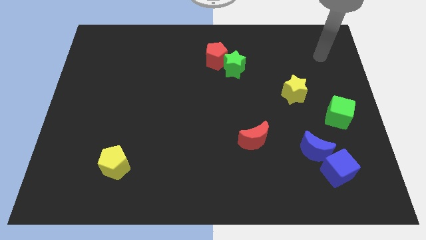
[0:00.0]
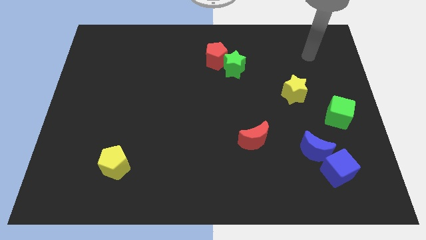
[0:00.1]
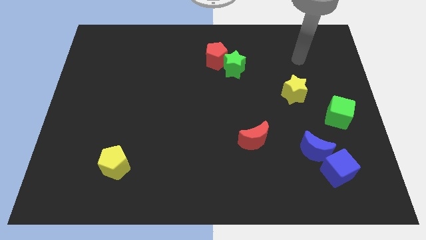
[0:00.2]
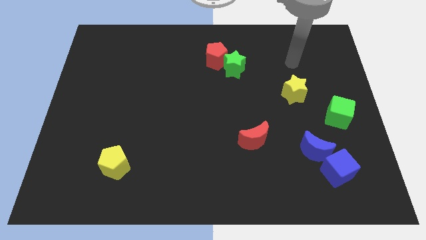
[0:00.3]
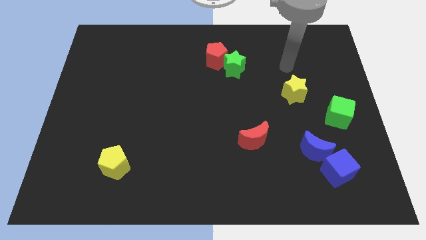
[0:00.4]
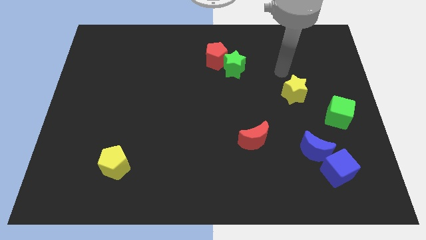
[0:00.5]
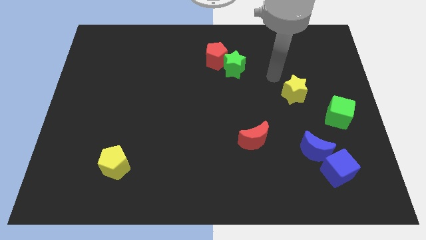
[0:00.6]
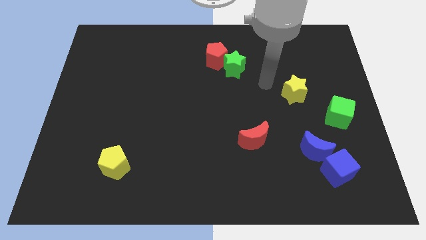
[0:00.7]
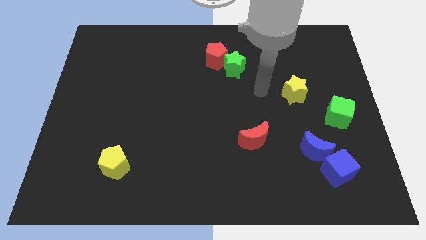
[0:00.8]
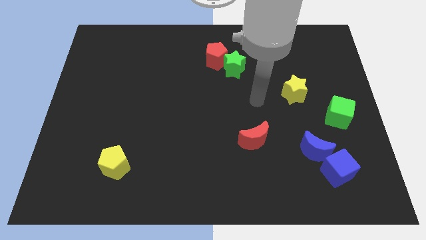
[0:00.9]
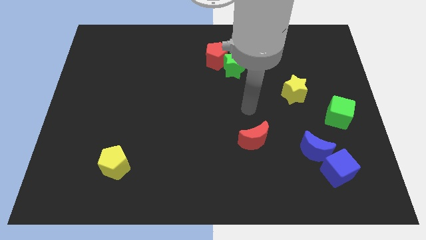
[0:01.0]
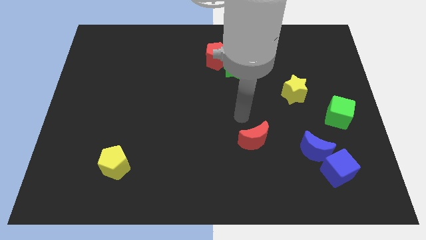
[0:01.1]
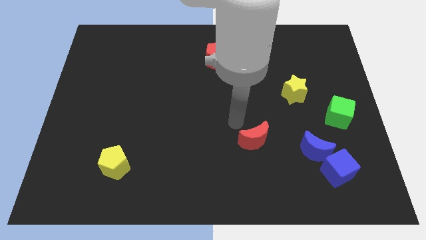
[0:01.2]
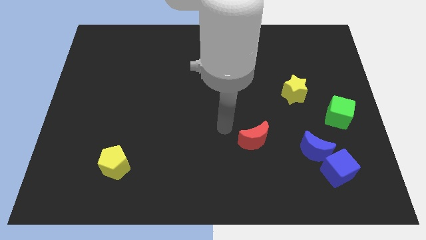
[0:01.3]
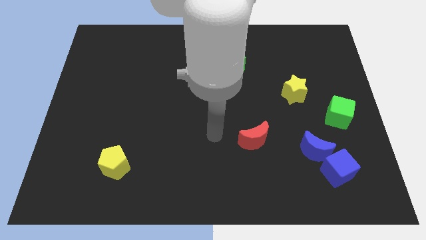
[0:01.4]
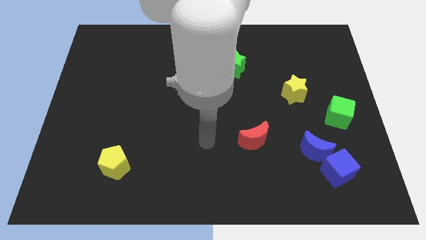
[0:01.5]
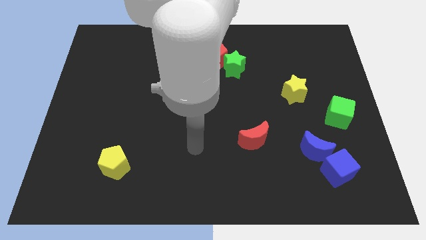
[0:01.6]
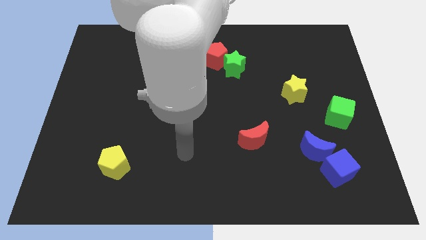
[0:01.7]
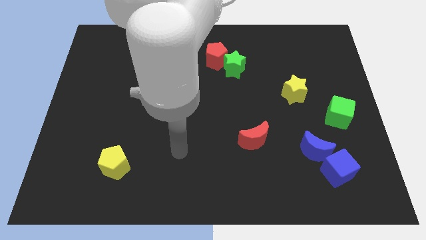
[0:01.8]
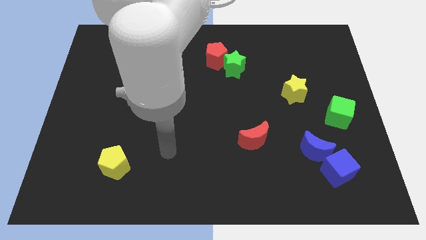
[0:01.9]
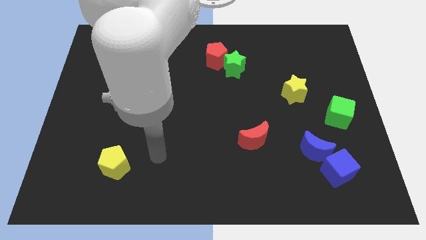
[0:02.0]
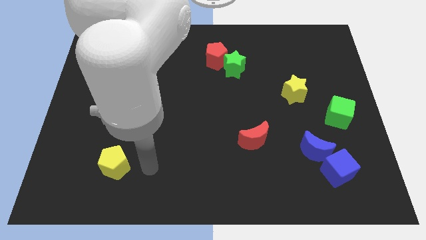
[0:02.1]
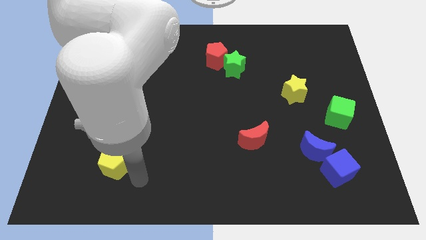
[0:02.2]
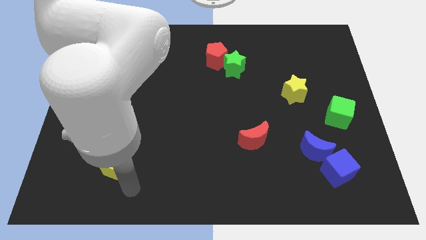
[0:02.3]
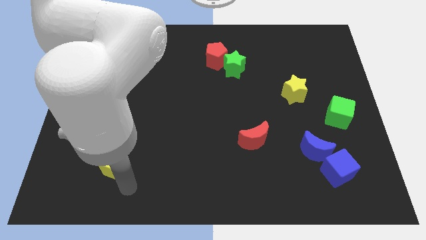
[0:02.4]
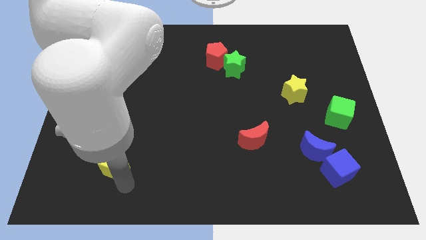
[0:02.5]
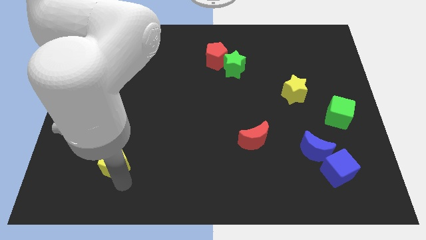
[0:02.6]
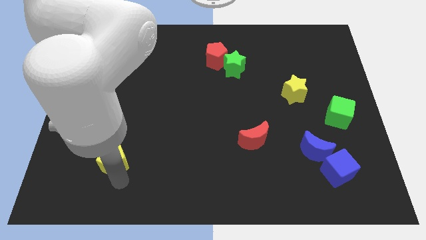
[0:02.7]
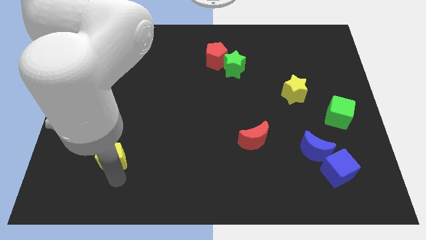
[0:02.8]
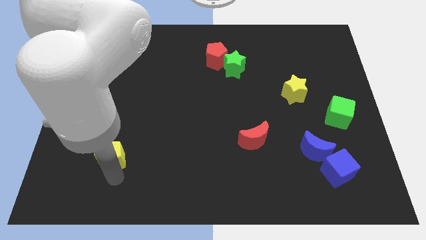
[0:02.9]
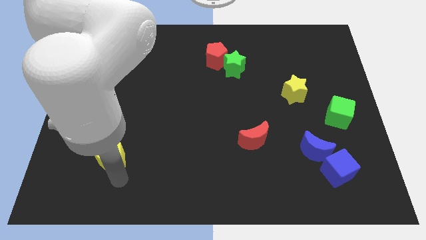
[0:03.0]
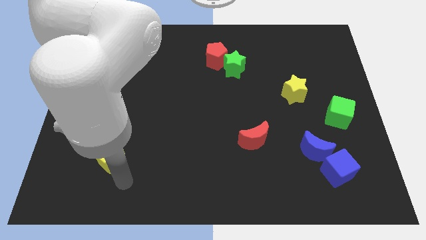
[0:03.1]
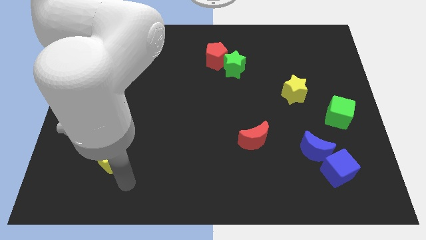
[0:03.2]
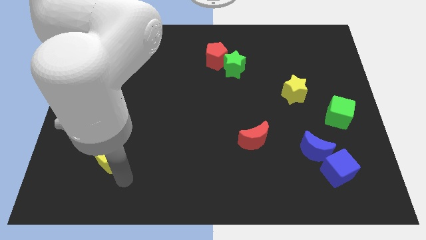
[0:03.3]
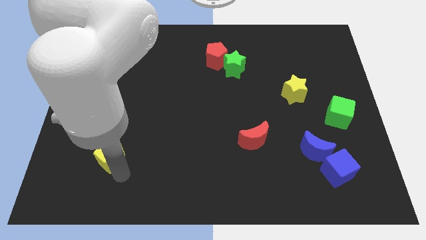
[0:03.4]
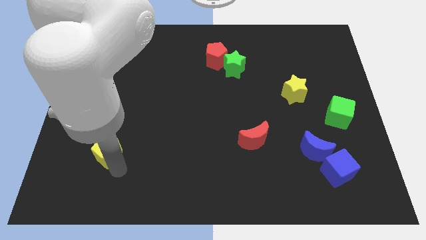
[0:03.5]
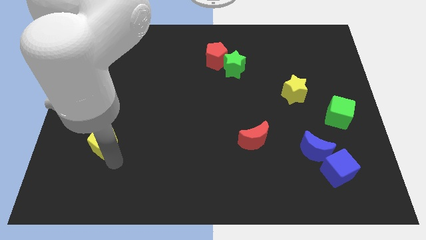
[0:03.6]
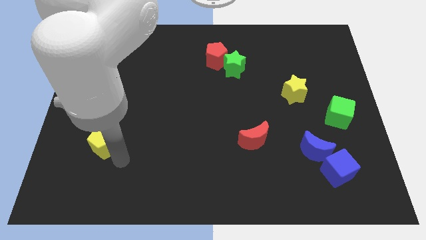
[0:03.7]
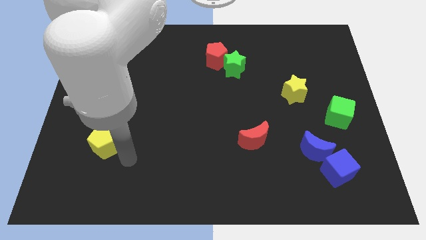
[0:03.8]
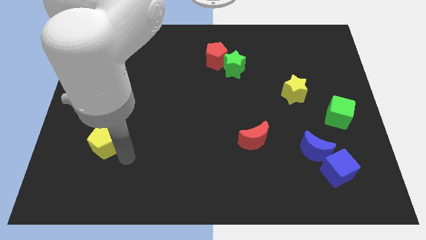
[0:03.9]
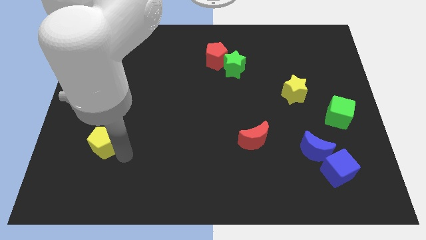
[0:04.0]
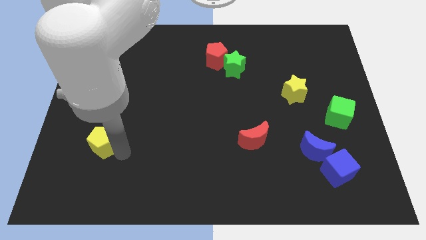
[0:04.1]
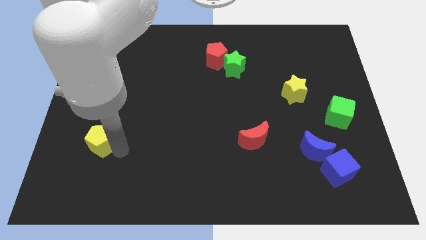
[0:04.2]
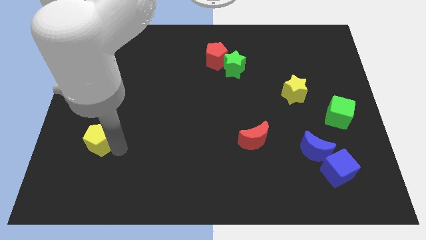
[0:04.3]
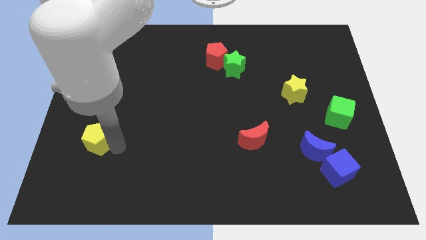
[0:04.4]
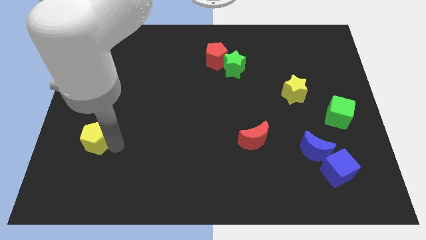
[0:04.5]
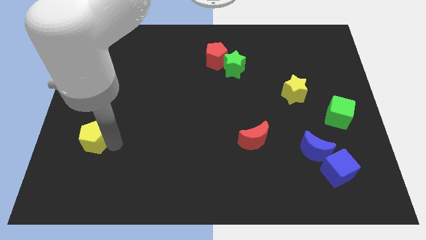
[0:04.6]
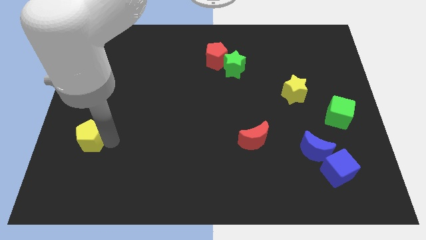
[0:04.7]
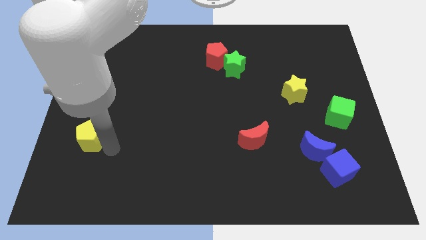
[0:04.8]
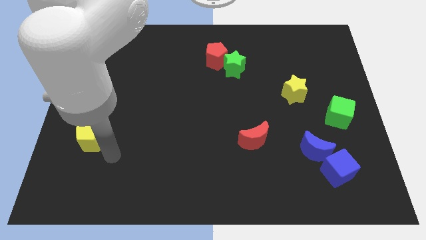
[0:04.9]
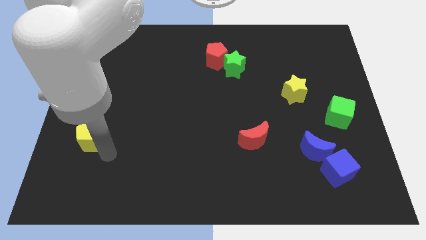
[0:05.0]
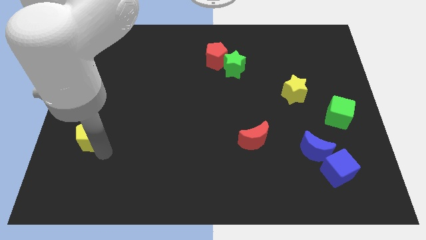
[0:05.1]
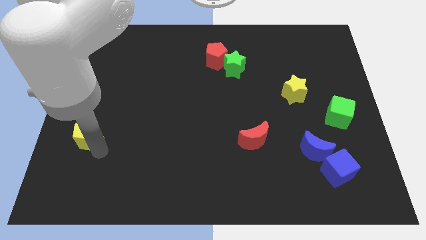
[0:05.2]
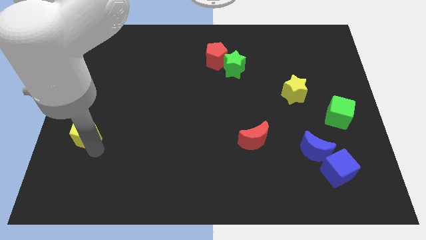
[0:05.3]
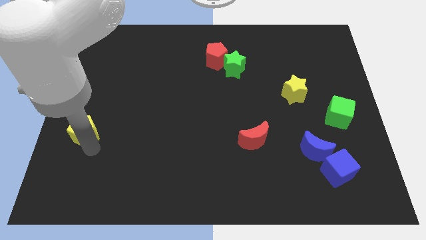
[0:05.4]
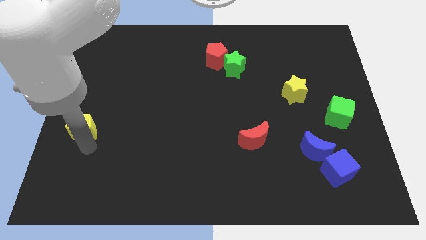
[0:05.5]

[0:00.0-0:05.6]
move the yellow pentagon to the left side

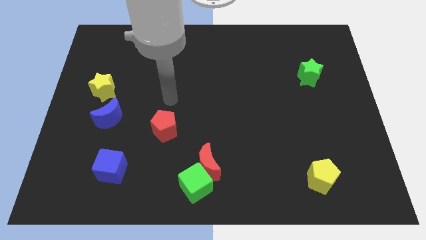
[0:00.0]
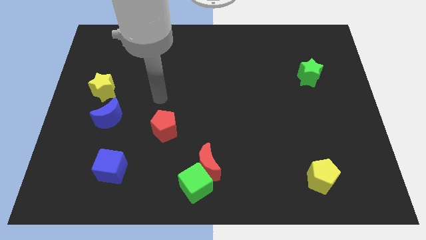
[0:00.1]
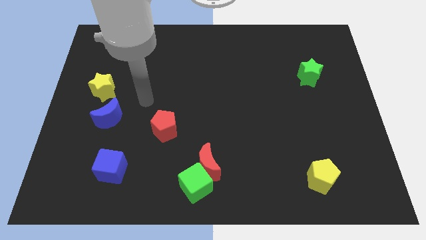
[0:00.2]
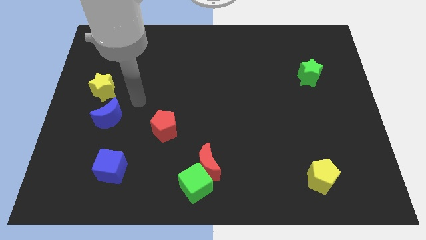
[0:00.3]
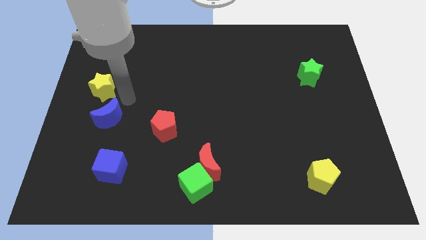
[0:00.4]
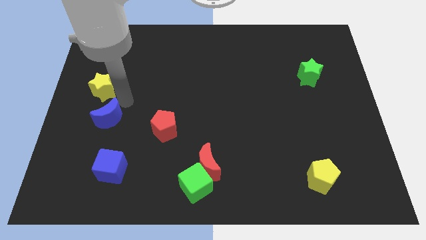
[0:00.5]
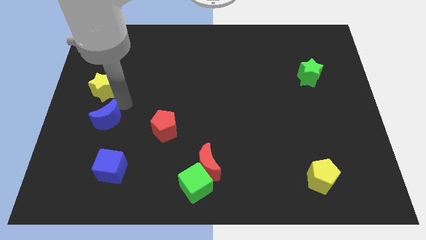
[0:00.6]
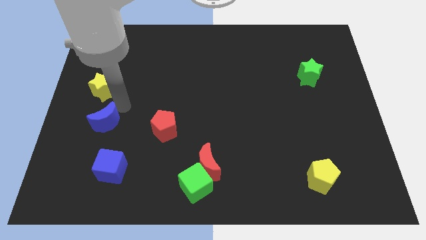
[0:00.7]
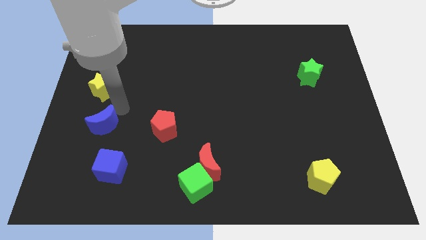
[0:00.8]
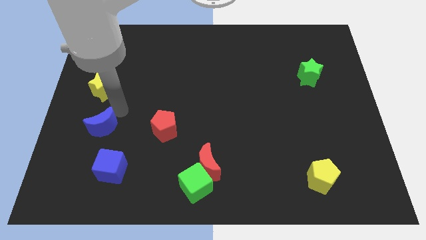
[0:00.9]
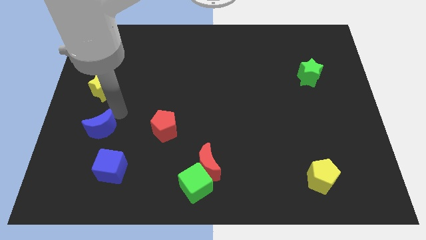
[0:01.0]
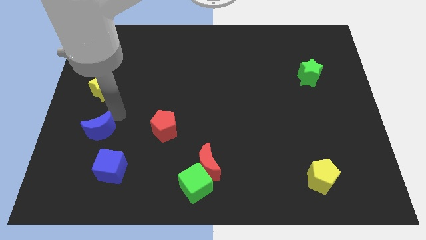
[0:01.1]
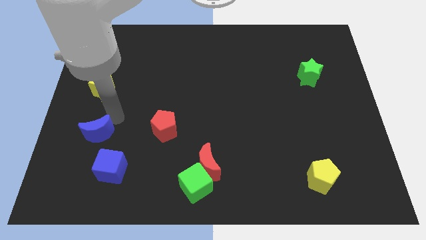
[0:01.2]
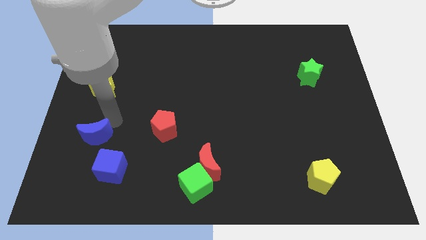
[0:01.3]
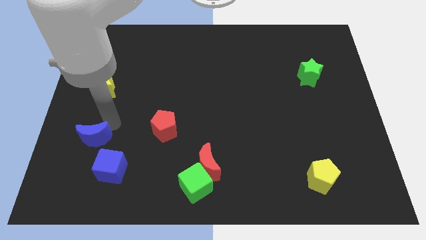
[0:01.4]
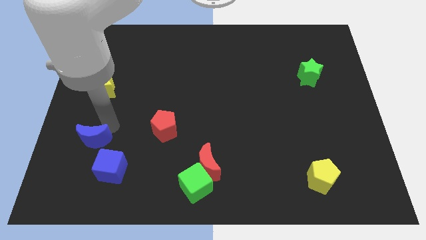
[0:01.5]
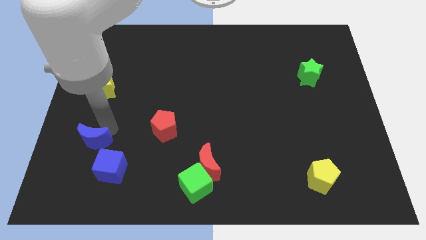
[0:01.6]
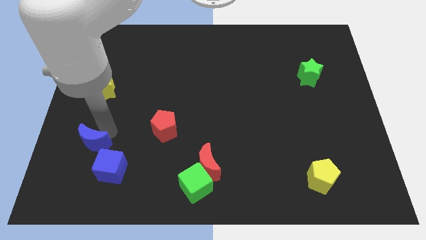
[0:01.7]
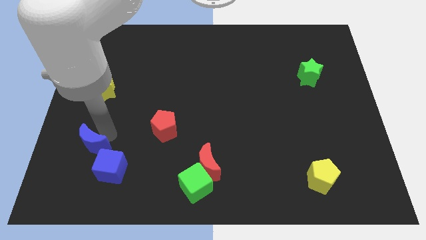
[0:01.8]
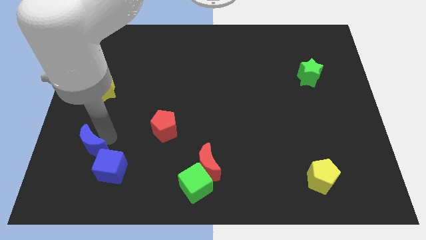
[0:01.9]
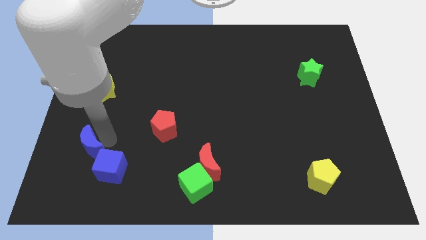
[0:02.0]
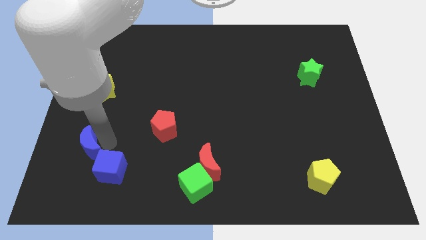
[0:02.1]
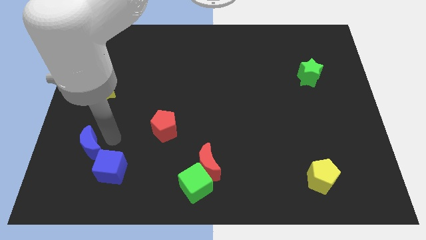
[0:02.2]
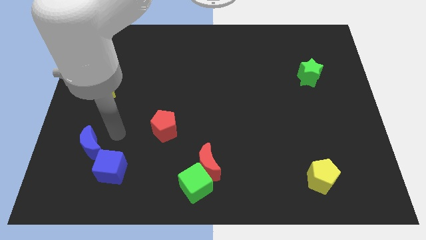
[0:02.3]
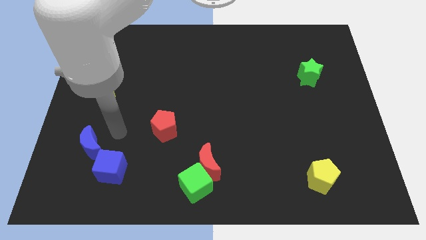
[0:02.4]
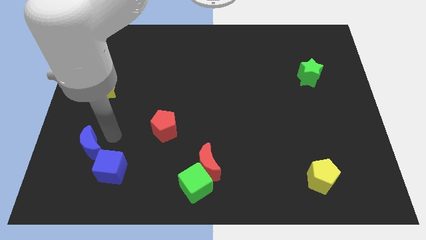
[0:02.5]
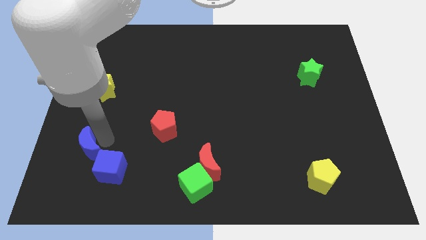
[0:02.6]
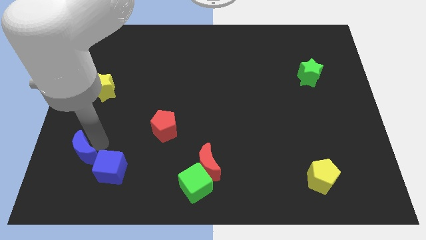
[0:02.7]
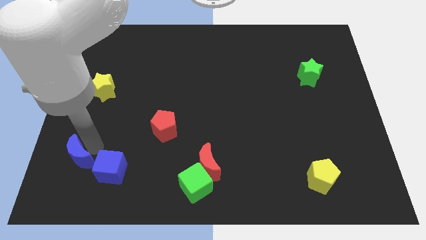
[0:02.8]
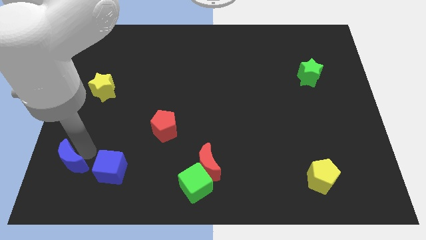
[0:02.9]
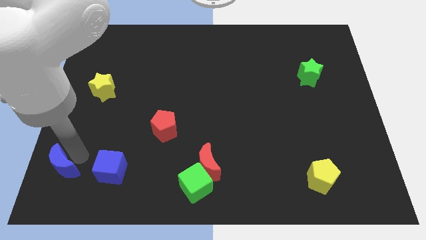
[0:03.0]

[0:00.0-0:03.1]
slide the blue moon to the bottom left
